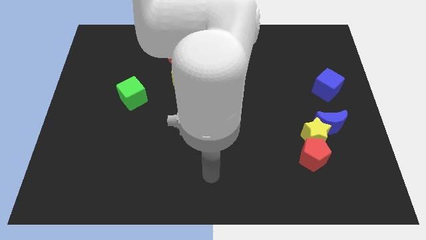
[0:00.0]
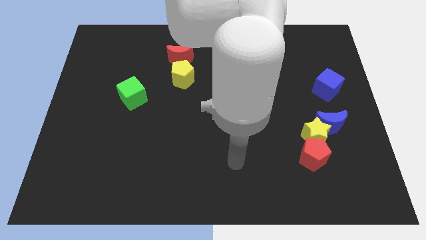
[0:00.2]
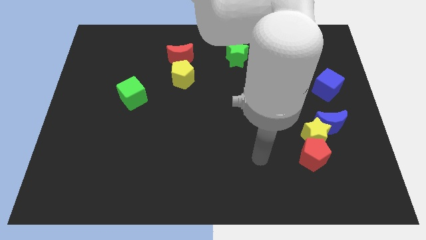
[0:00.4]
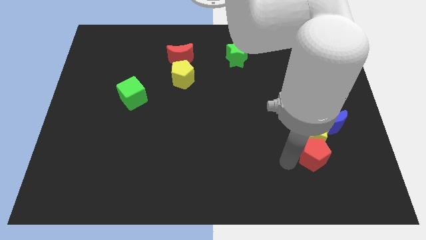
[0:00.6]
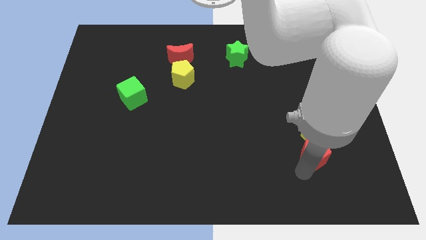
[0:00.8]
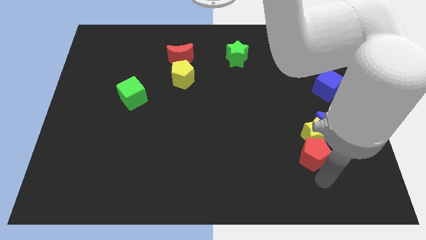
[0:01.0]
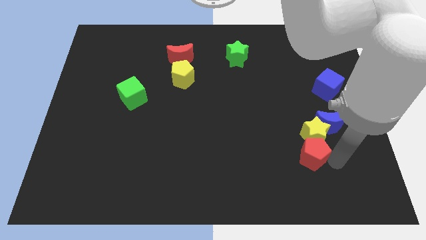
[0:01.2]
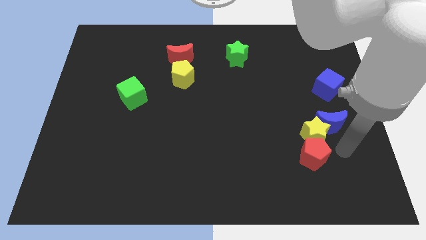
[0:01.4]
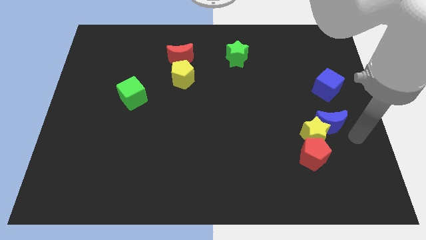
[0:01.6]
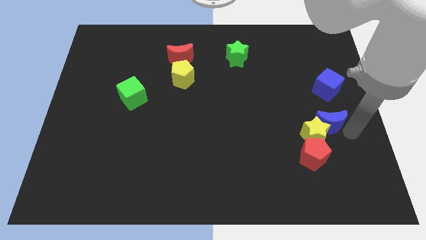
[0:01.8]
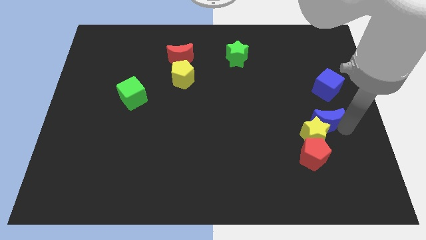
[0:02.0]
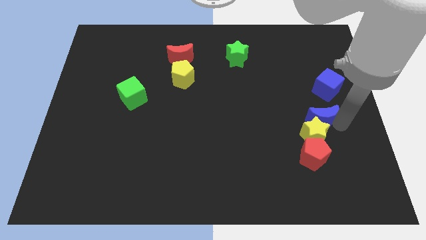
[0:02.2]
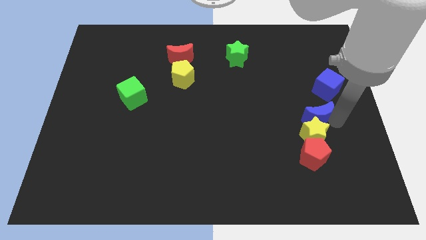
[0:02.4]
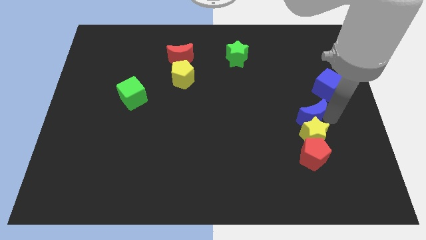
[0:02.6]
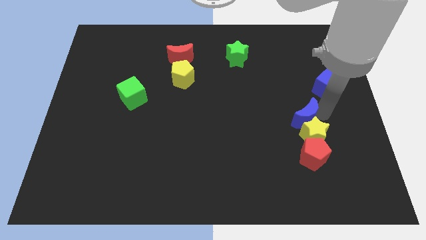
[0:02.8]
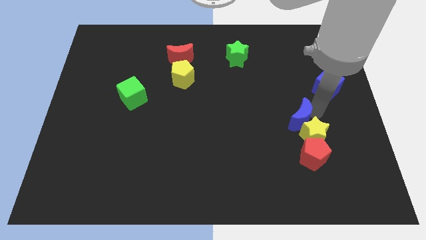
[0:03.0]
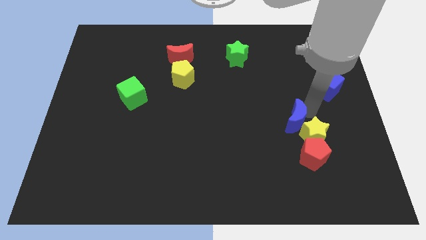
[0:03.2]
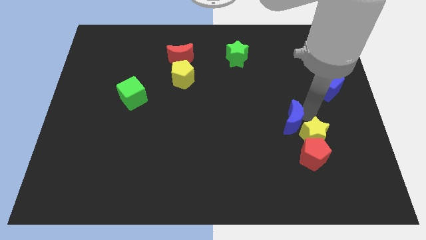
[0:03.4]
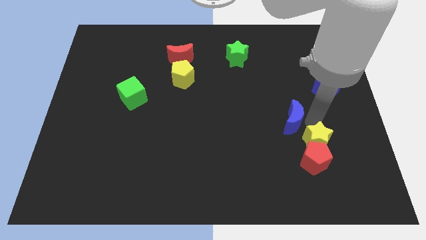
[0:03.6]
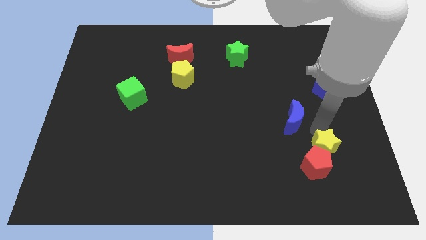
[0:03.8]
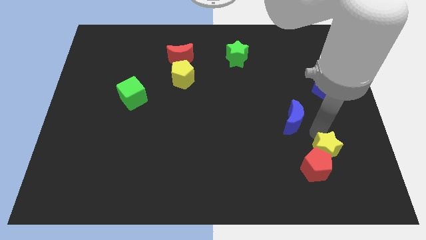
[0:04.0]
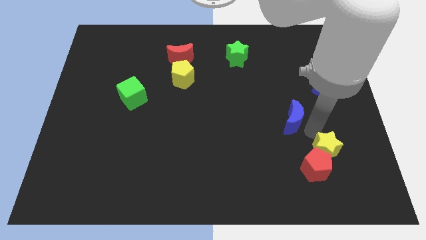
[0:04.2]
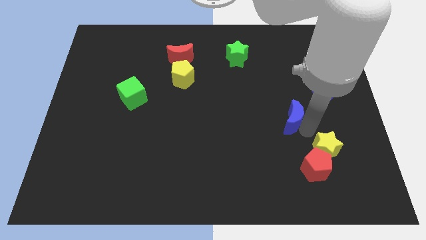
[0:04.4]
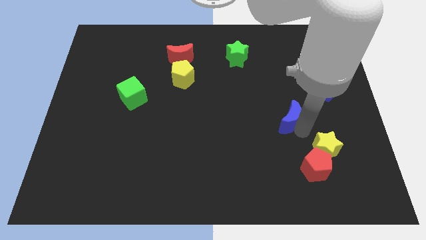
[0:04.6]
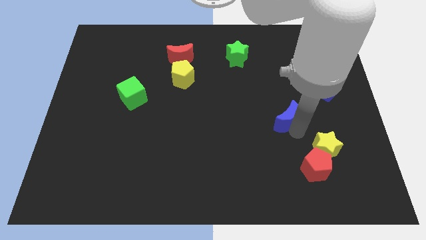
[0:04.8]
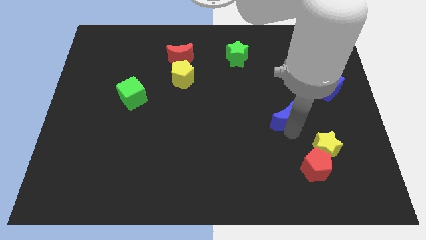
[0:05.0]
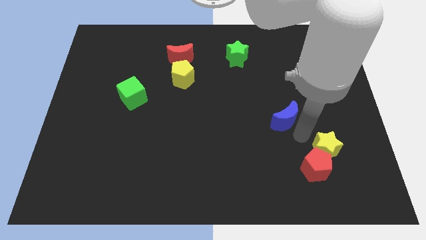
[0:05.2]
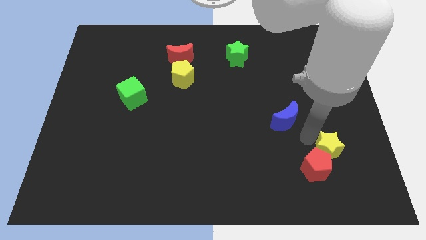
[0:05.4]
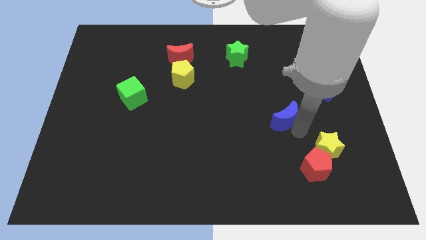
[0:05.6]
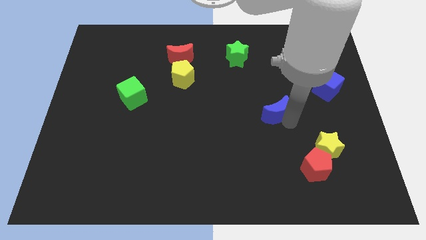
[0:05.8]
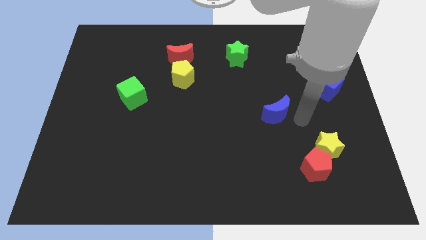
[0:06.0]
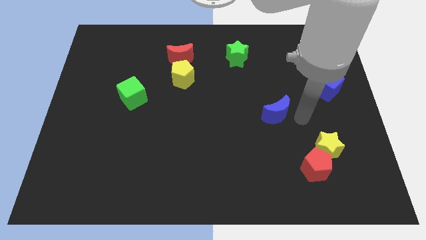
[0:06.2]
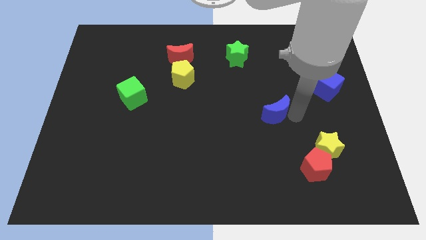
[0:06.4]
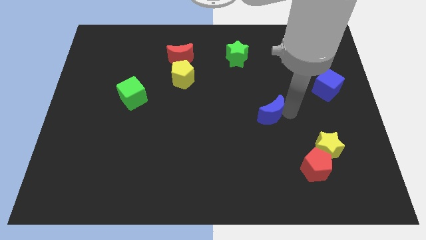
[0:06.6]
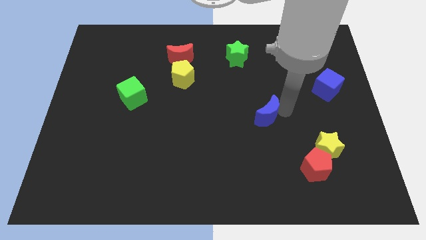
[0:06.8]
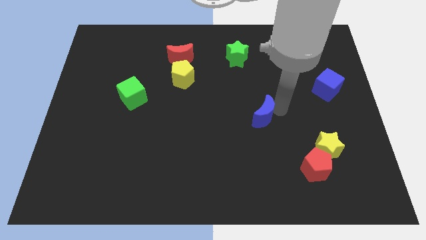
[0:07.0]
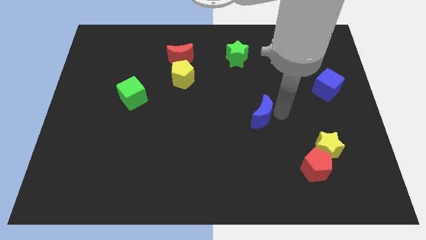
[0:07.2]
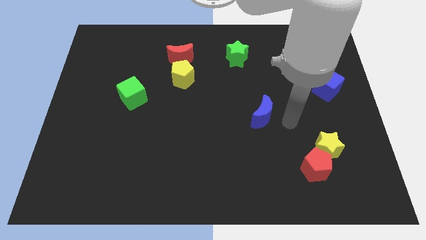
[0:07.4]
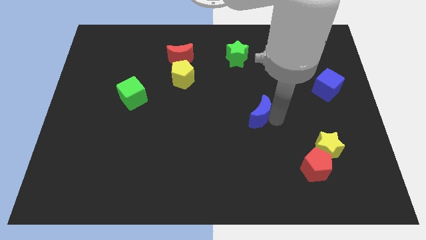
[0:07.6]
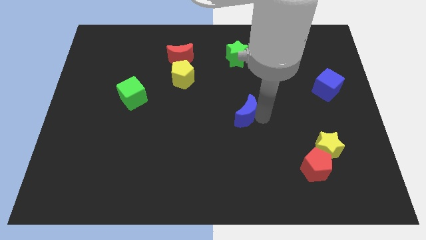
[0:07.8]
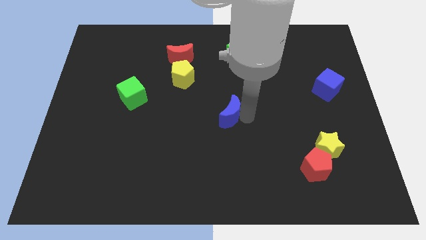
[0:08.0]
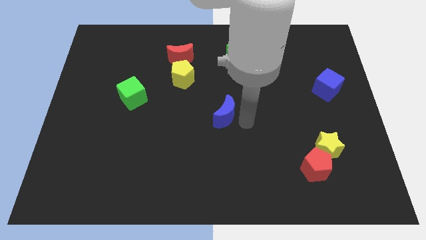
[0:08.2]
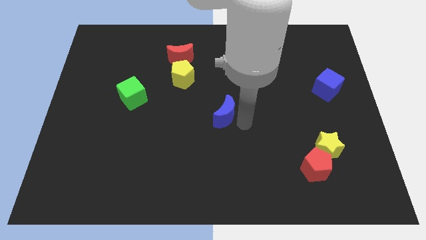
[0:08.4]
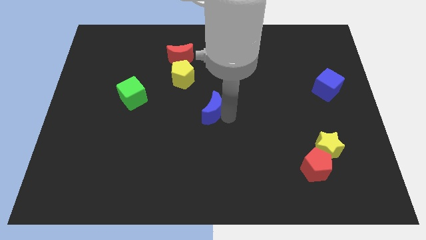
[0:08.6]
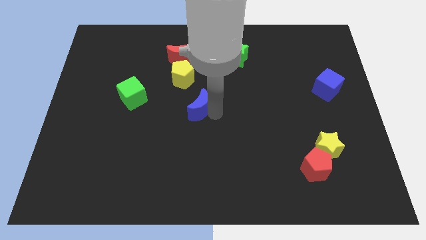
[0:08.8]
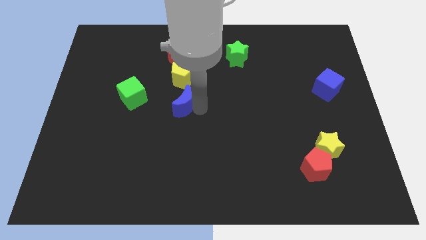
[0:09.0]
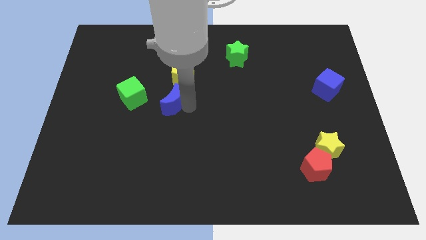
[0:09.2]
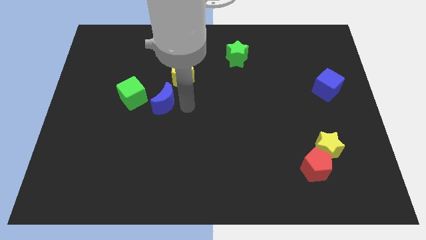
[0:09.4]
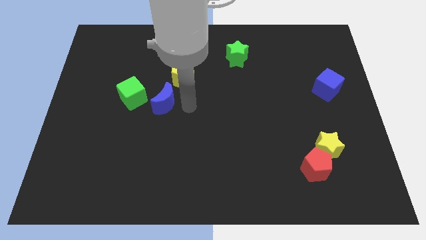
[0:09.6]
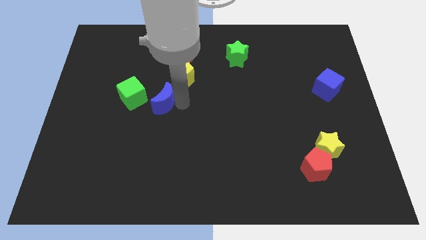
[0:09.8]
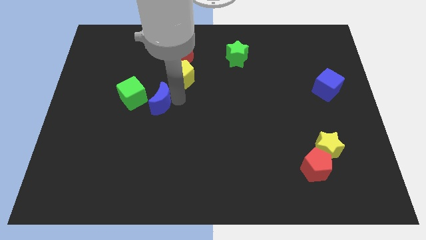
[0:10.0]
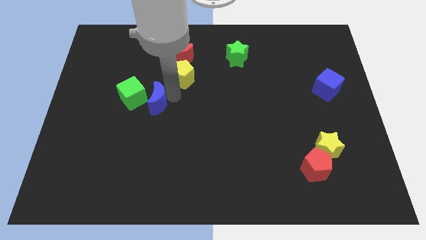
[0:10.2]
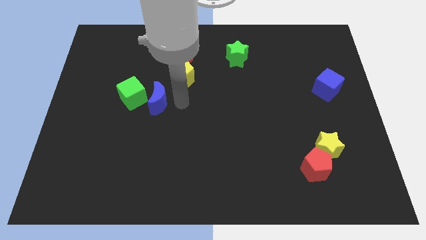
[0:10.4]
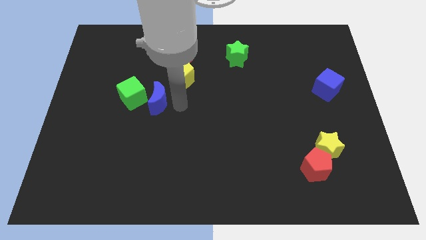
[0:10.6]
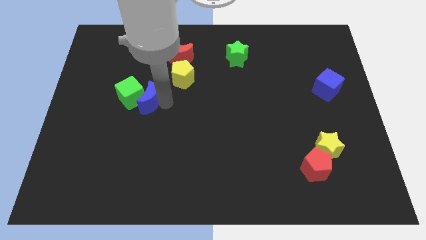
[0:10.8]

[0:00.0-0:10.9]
move the blue moon next to the green cube
